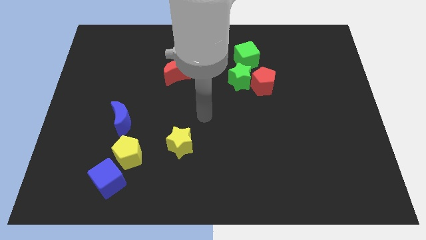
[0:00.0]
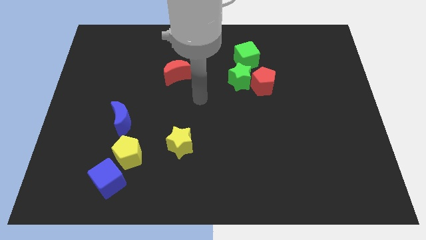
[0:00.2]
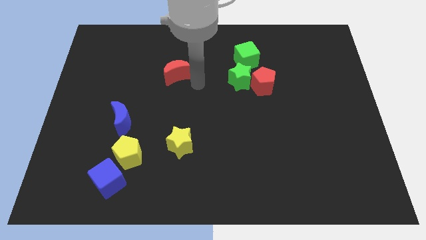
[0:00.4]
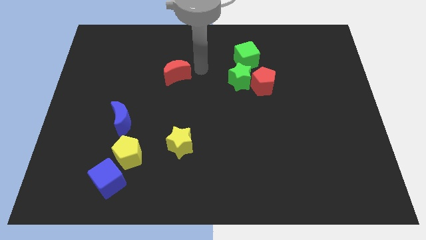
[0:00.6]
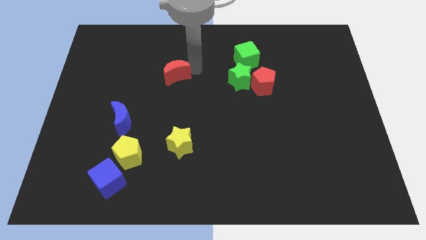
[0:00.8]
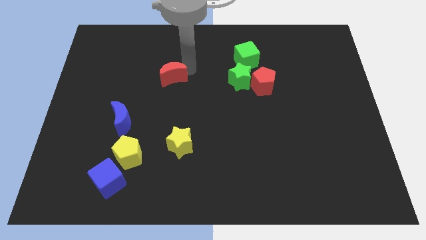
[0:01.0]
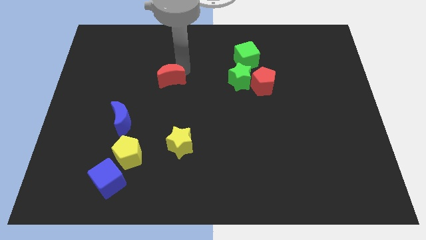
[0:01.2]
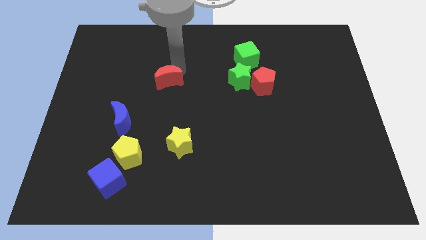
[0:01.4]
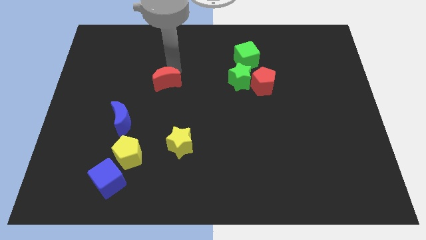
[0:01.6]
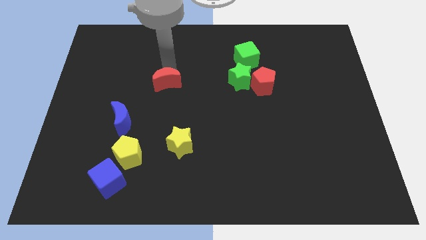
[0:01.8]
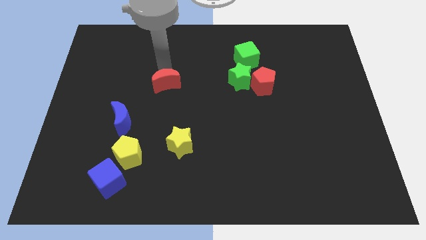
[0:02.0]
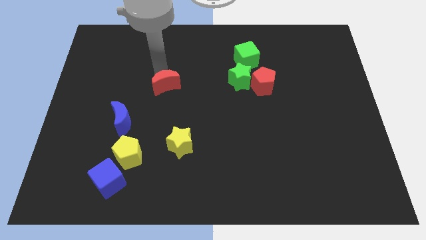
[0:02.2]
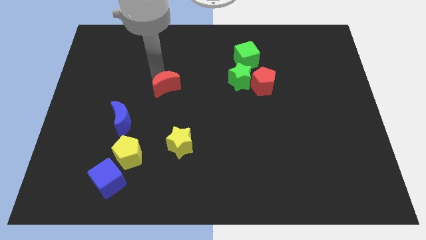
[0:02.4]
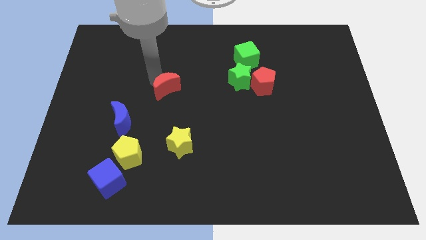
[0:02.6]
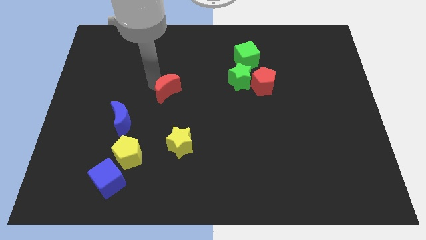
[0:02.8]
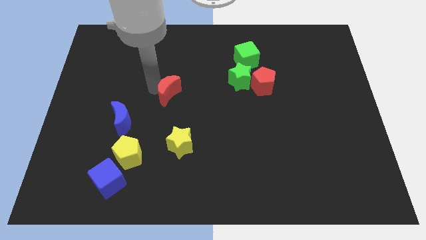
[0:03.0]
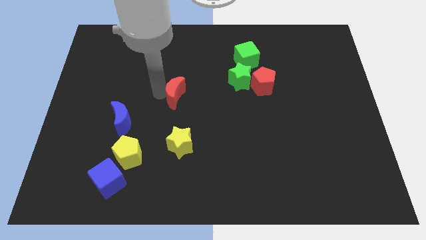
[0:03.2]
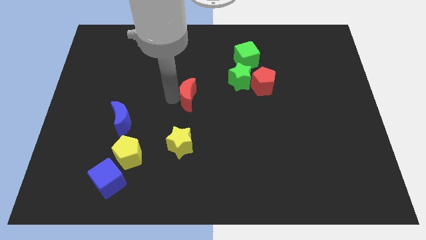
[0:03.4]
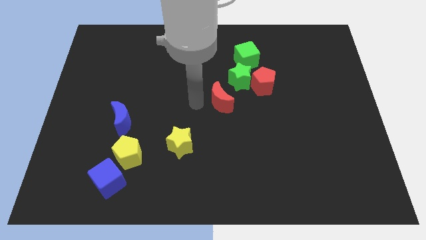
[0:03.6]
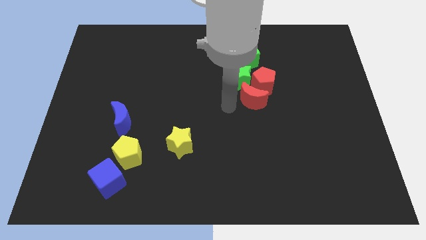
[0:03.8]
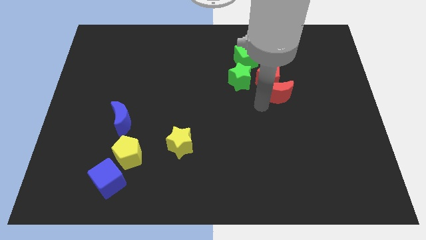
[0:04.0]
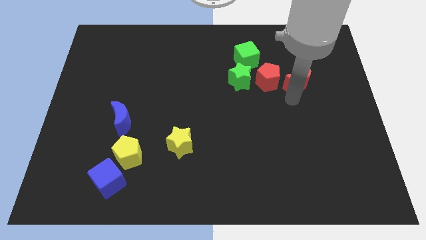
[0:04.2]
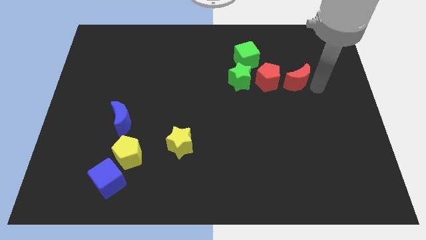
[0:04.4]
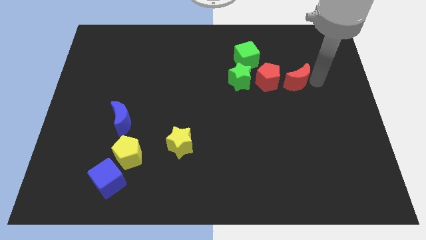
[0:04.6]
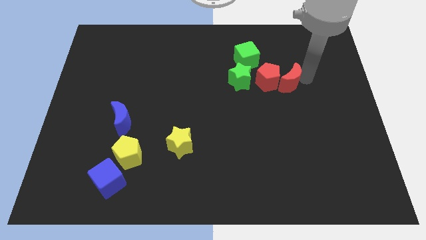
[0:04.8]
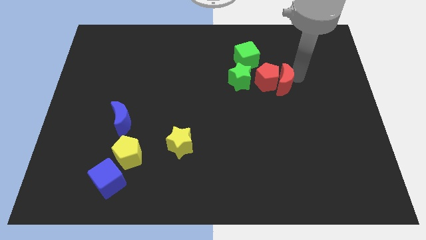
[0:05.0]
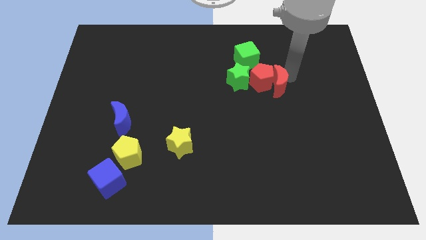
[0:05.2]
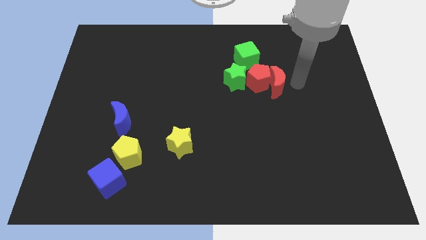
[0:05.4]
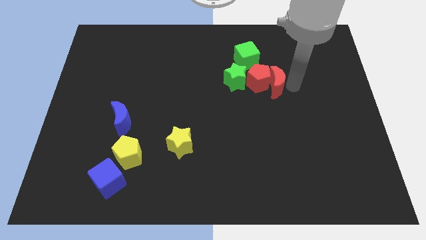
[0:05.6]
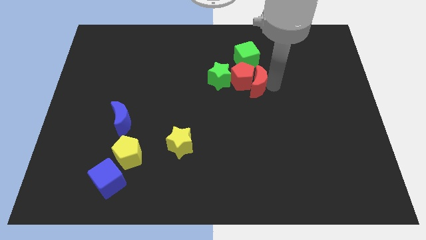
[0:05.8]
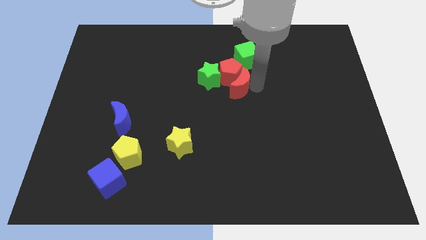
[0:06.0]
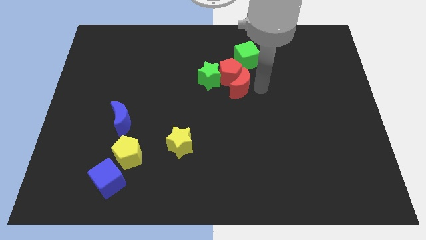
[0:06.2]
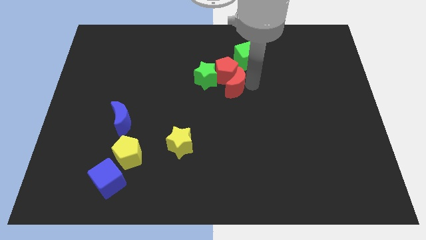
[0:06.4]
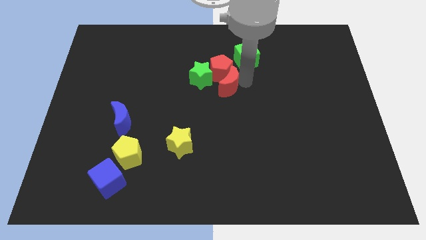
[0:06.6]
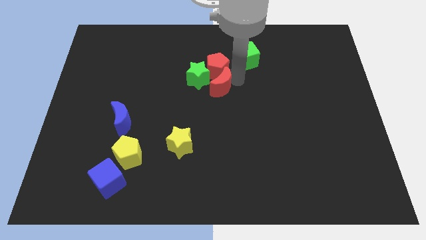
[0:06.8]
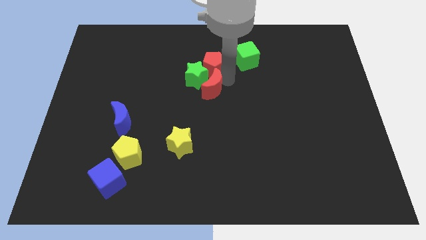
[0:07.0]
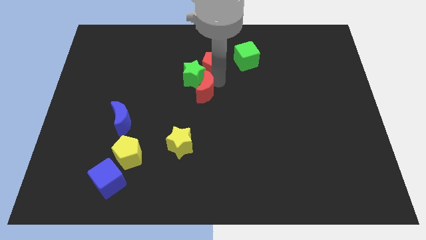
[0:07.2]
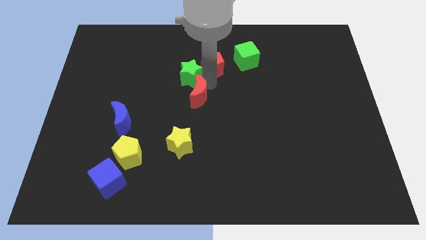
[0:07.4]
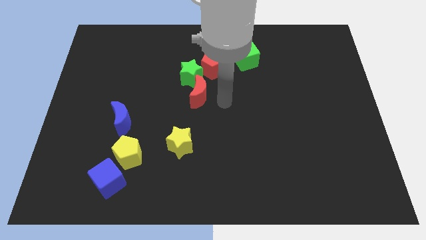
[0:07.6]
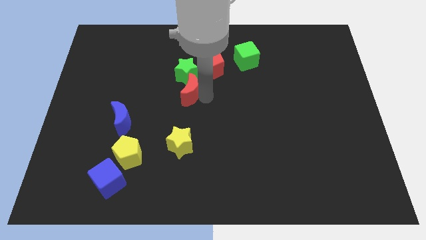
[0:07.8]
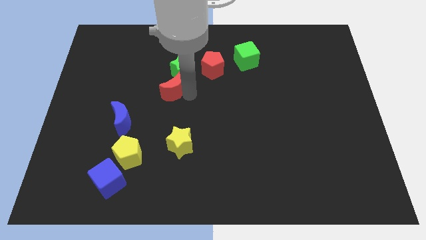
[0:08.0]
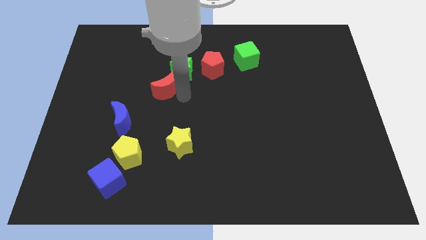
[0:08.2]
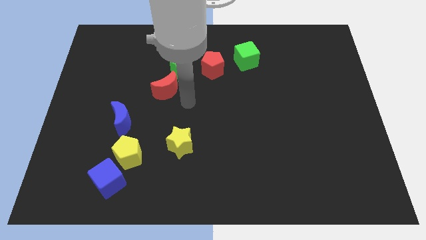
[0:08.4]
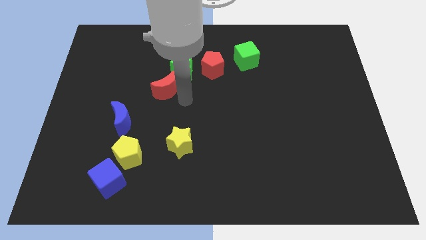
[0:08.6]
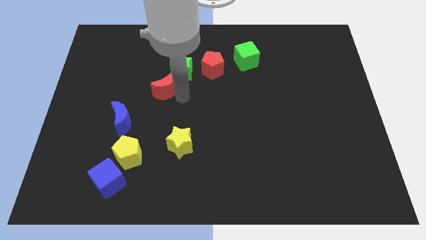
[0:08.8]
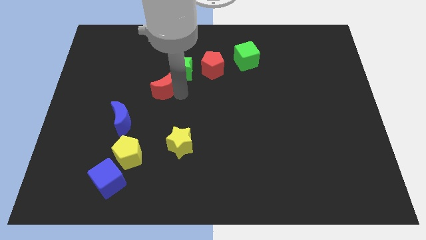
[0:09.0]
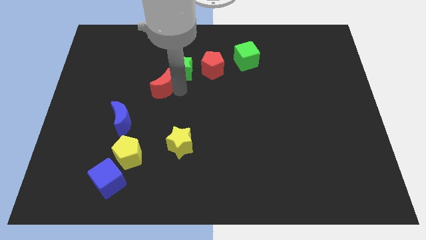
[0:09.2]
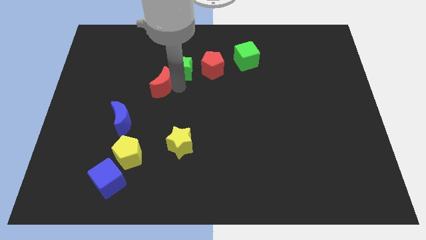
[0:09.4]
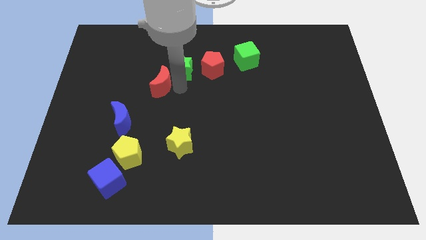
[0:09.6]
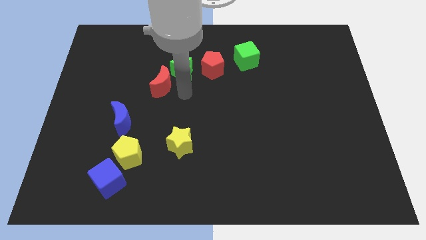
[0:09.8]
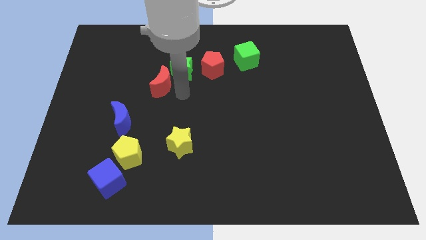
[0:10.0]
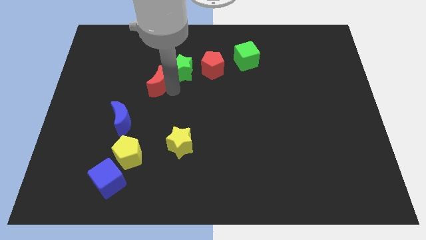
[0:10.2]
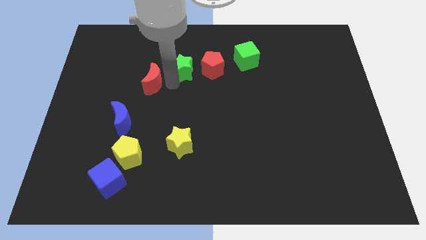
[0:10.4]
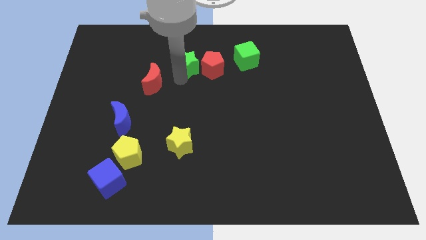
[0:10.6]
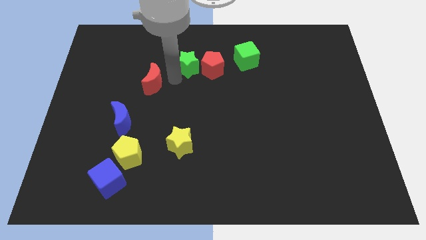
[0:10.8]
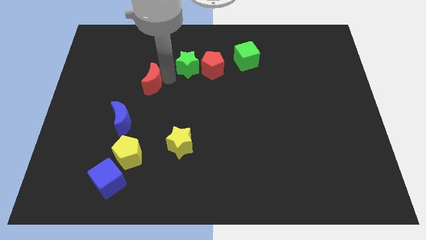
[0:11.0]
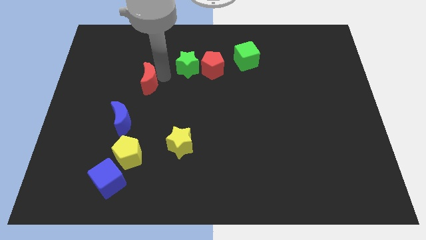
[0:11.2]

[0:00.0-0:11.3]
slide the red moon to the top of the blue moon

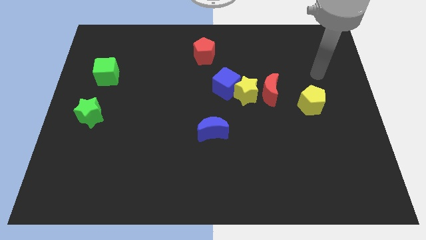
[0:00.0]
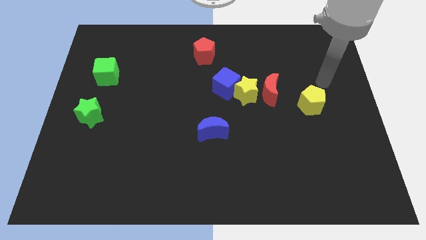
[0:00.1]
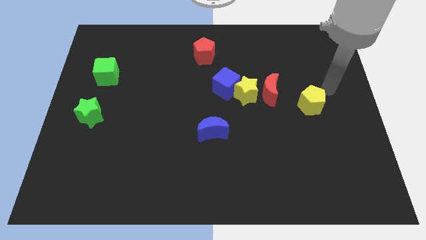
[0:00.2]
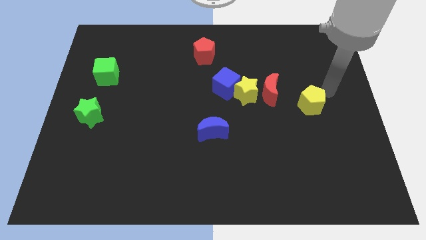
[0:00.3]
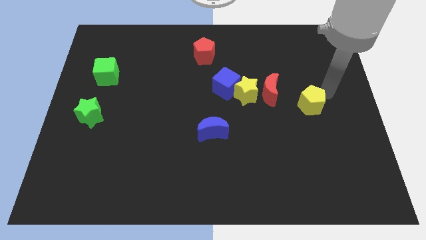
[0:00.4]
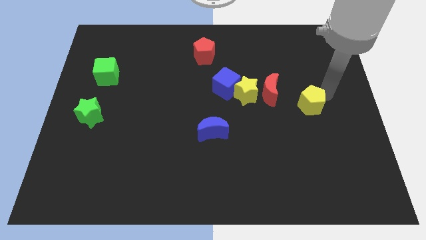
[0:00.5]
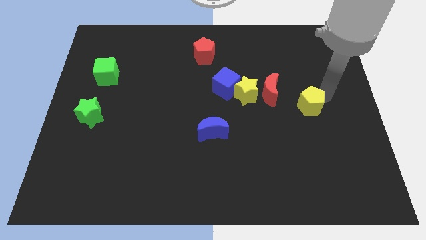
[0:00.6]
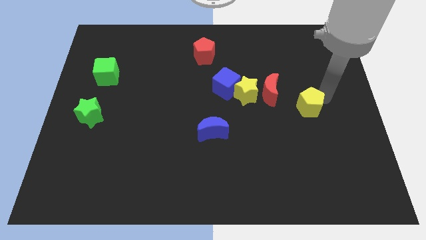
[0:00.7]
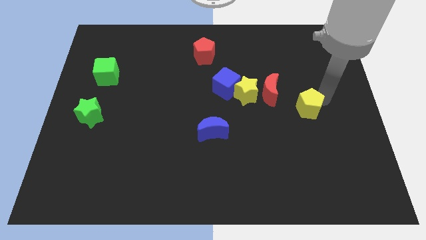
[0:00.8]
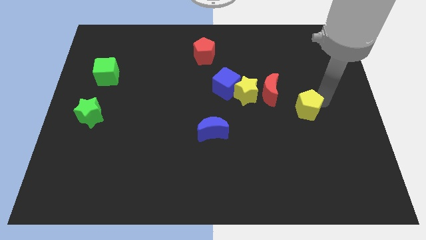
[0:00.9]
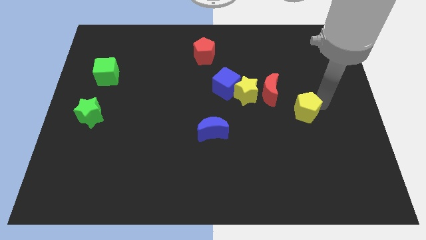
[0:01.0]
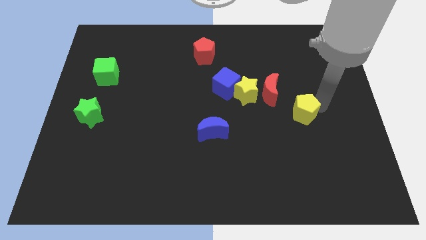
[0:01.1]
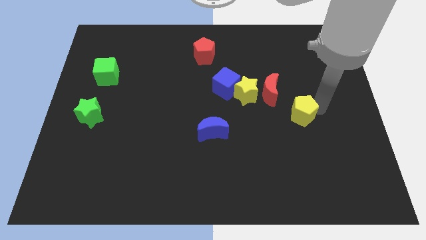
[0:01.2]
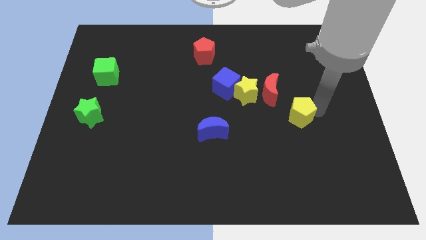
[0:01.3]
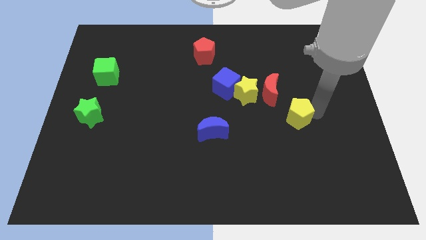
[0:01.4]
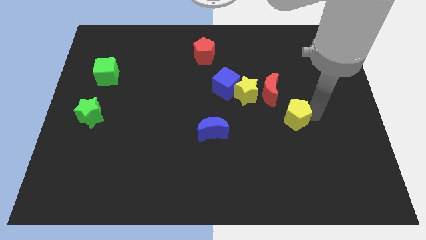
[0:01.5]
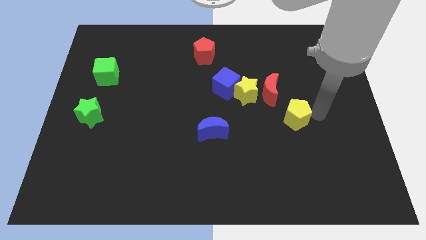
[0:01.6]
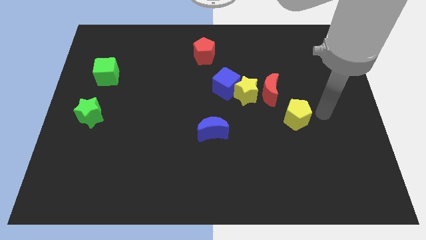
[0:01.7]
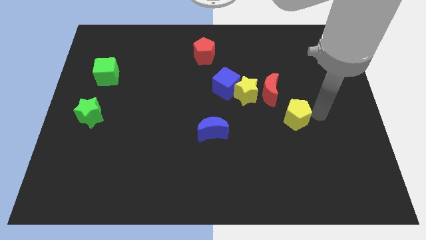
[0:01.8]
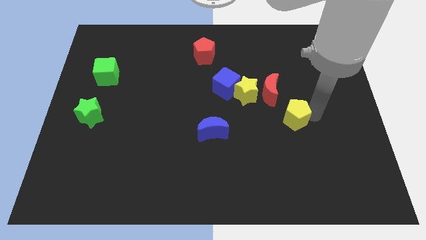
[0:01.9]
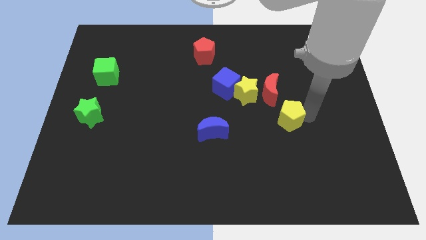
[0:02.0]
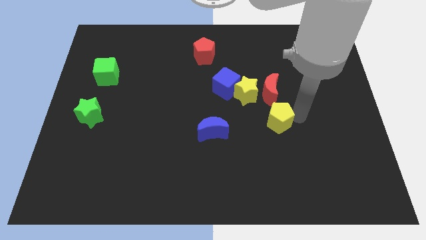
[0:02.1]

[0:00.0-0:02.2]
push the yellow pentagon just right of the blue moon
